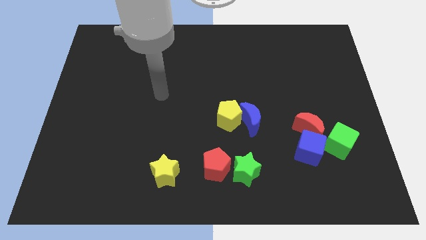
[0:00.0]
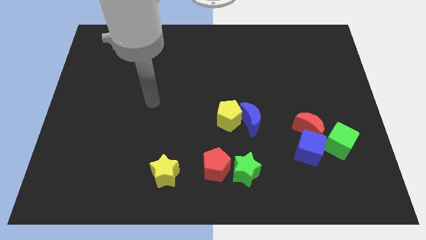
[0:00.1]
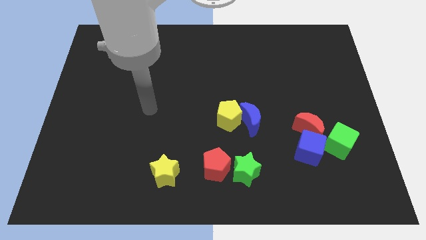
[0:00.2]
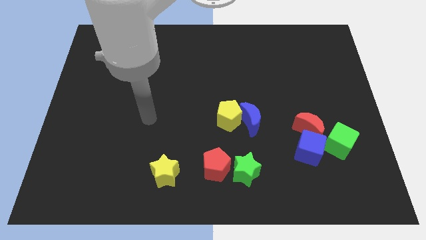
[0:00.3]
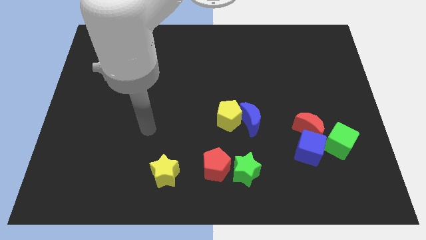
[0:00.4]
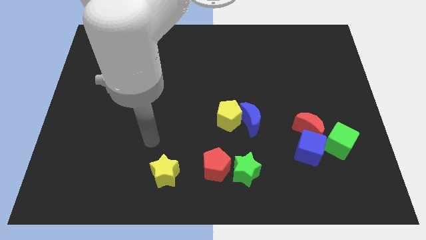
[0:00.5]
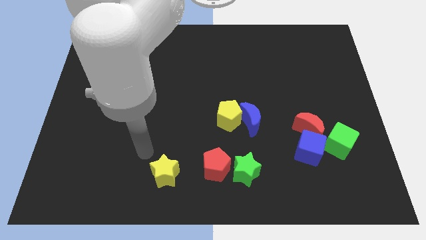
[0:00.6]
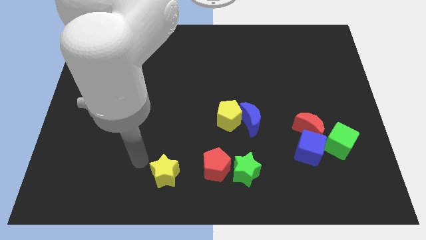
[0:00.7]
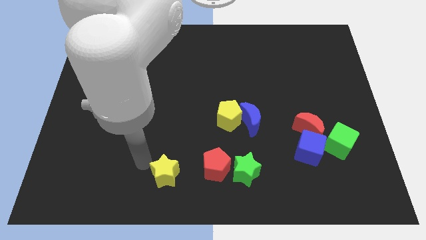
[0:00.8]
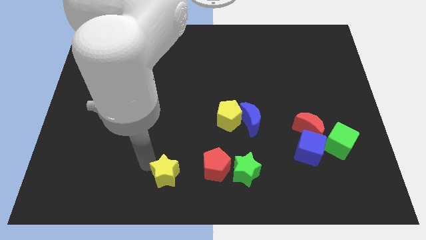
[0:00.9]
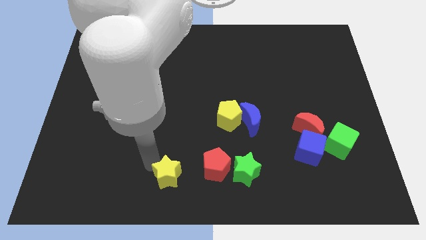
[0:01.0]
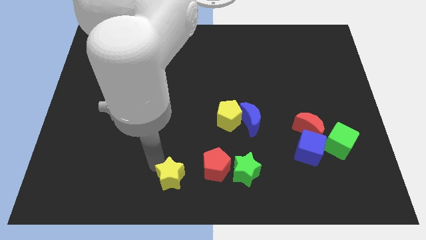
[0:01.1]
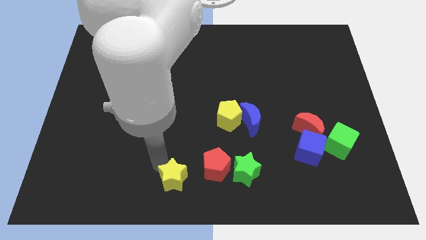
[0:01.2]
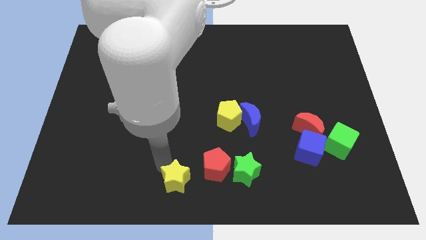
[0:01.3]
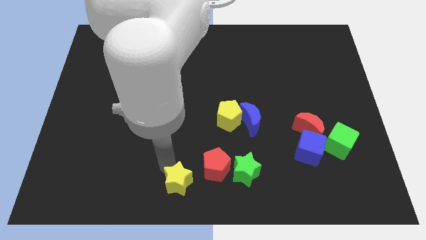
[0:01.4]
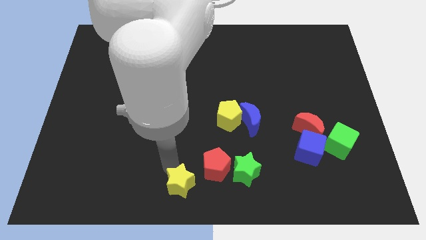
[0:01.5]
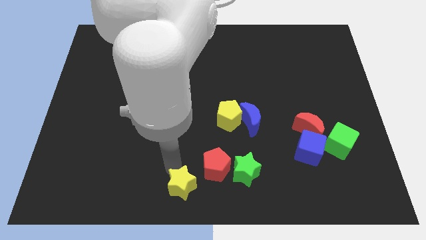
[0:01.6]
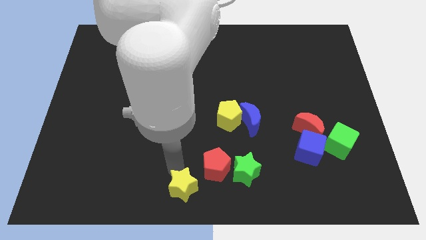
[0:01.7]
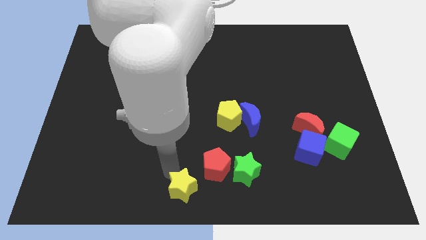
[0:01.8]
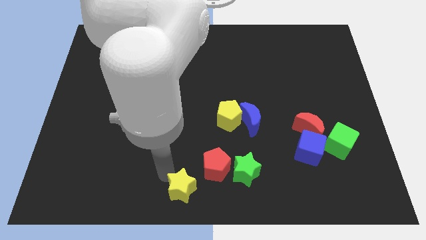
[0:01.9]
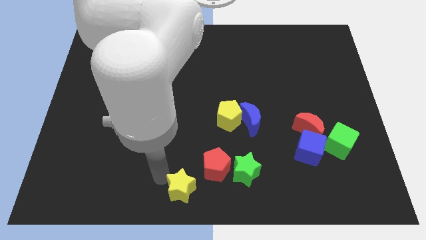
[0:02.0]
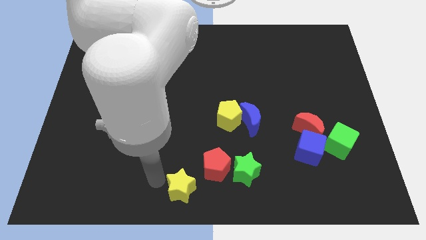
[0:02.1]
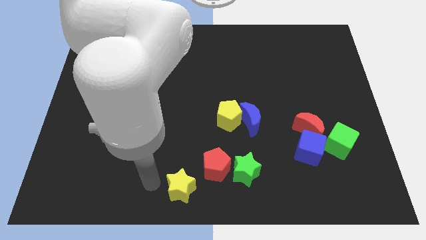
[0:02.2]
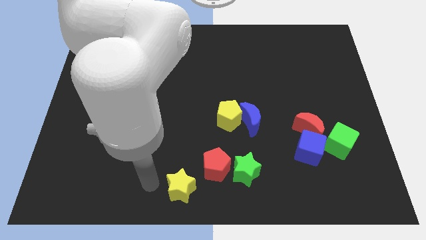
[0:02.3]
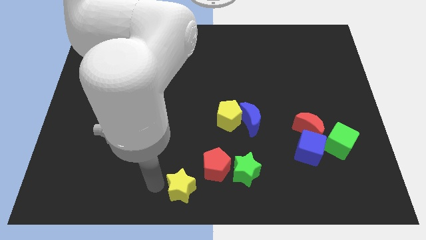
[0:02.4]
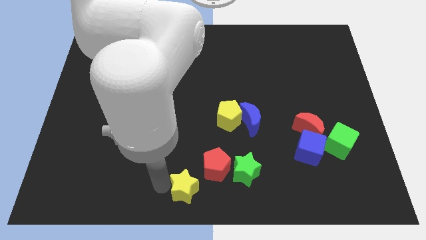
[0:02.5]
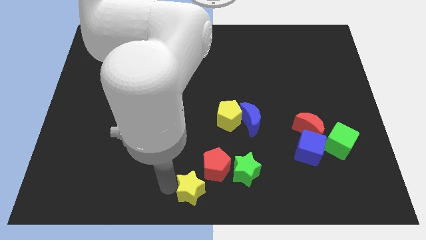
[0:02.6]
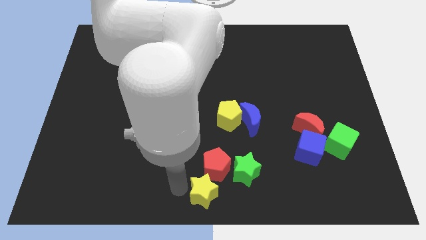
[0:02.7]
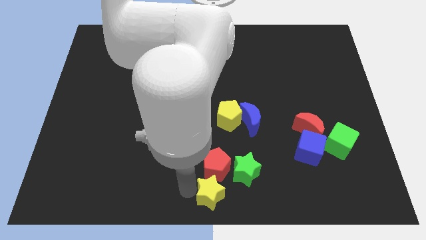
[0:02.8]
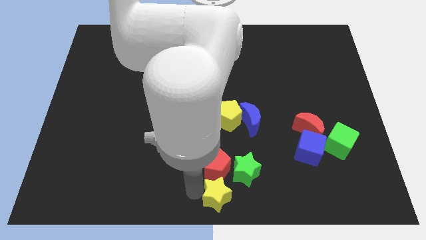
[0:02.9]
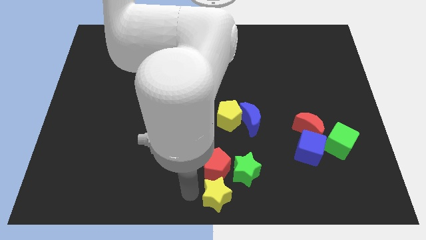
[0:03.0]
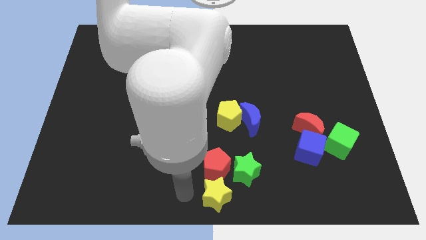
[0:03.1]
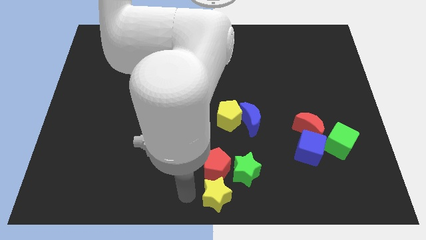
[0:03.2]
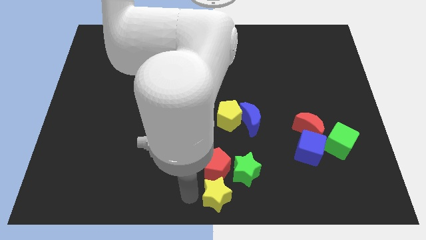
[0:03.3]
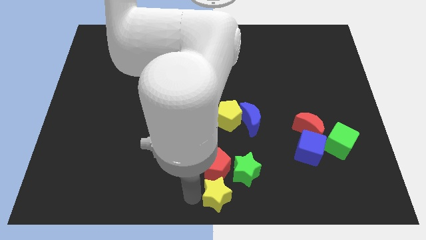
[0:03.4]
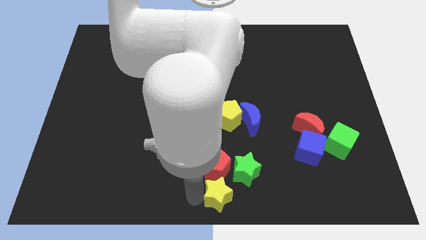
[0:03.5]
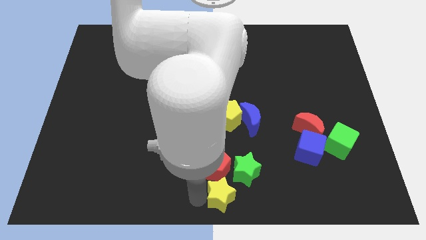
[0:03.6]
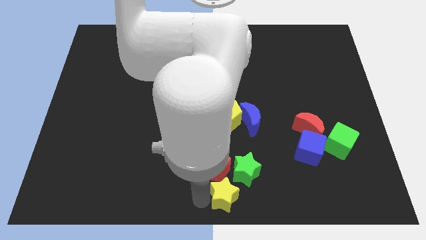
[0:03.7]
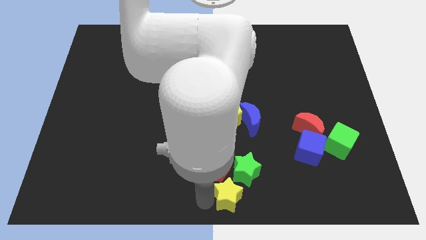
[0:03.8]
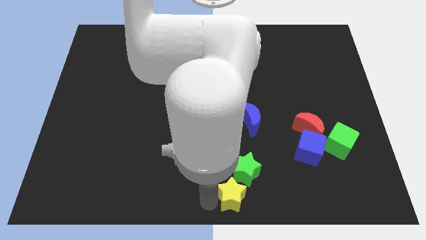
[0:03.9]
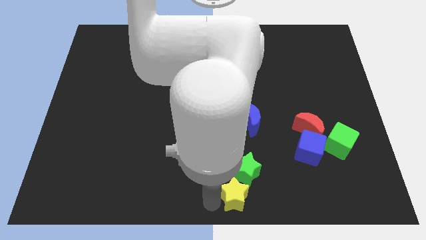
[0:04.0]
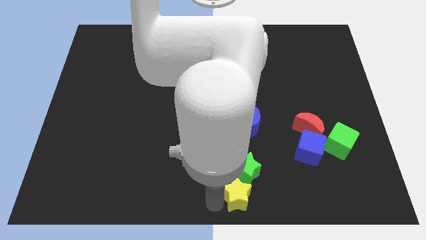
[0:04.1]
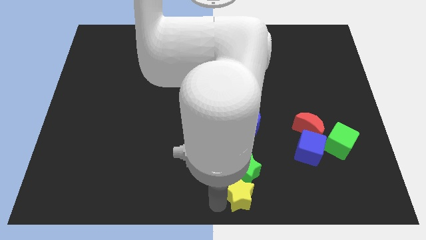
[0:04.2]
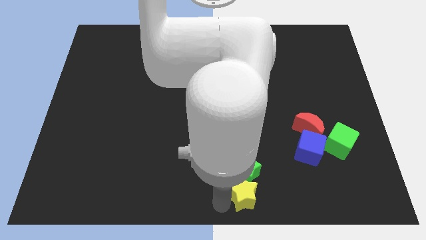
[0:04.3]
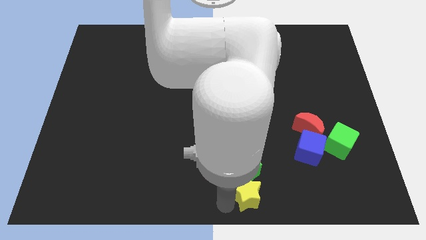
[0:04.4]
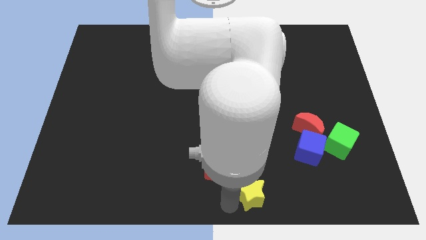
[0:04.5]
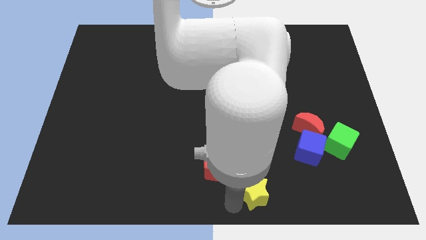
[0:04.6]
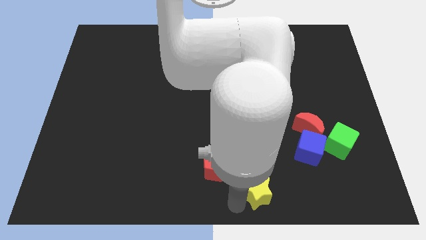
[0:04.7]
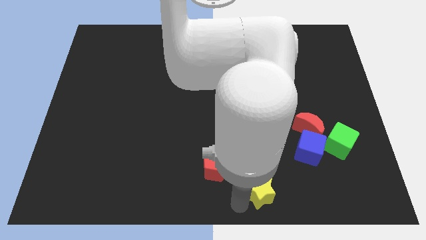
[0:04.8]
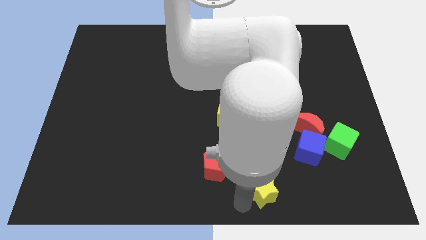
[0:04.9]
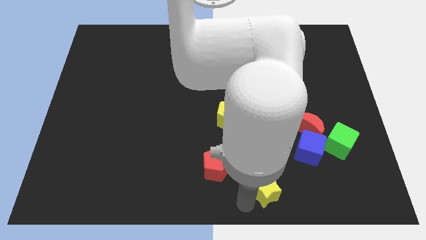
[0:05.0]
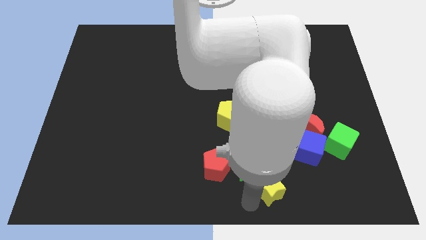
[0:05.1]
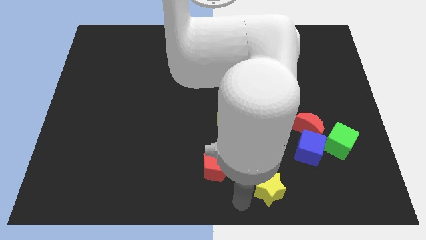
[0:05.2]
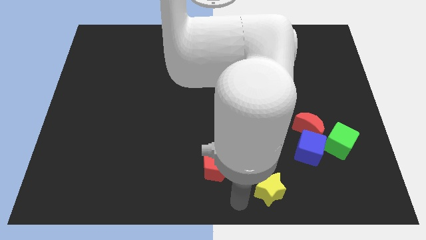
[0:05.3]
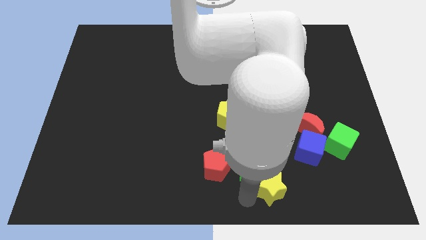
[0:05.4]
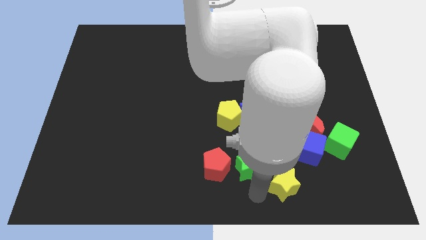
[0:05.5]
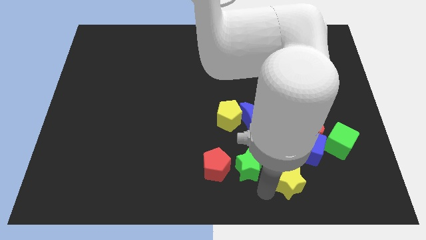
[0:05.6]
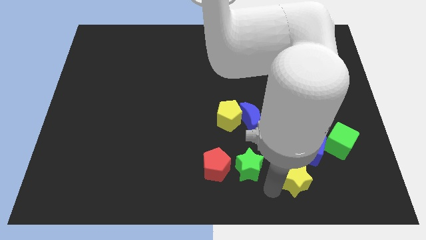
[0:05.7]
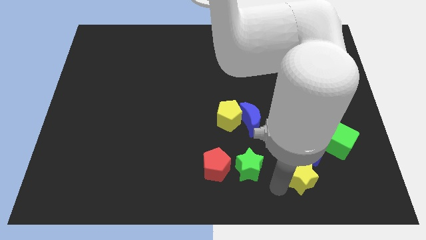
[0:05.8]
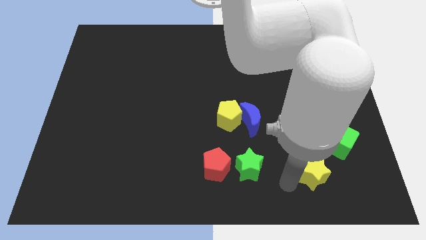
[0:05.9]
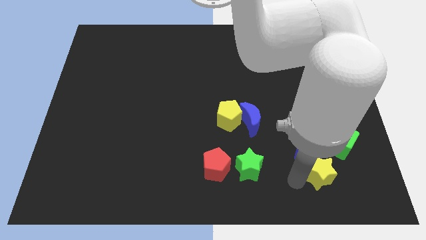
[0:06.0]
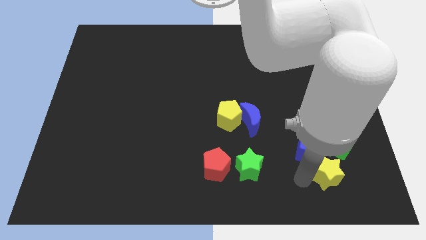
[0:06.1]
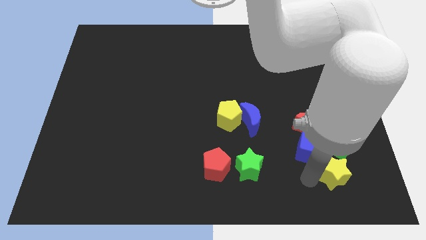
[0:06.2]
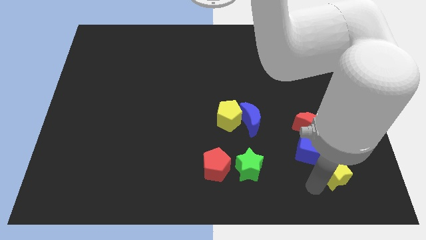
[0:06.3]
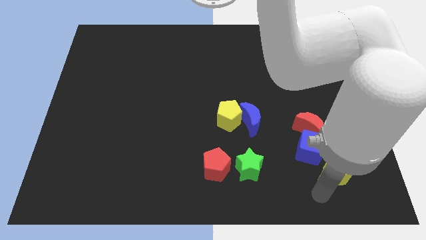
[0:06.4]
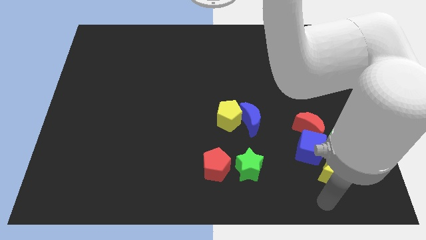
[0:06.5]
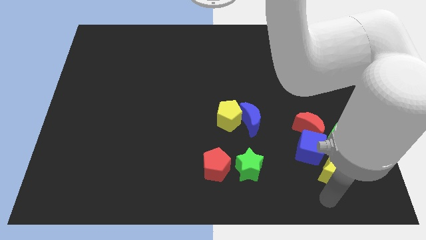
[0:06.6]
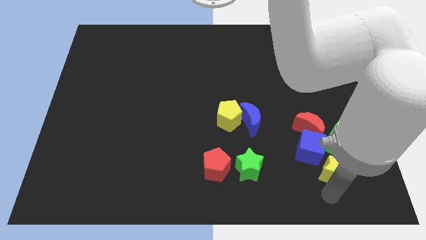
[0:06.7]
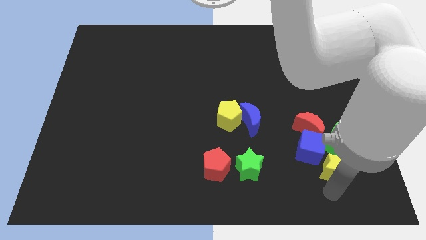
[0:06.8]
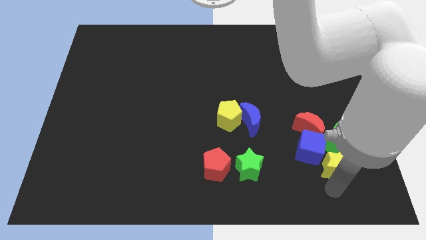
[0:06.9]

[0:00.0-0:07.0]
slide the yellow star next to the green cube
